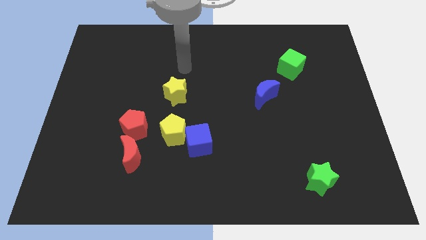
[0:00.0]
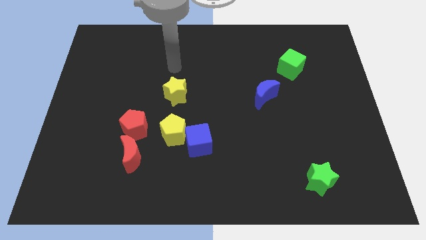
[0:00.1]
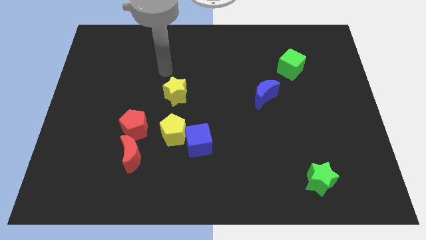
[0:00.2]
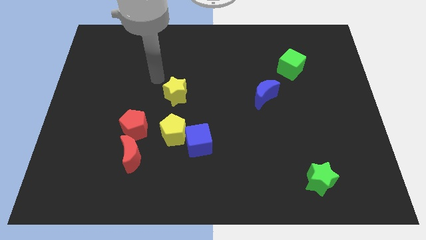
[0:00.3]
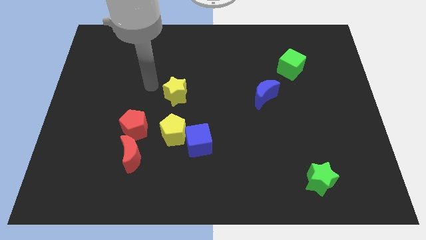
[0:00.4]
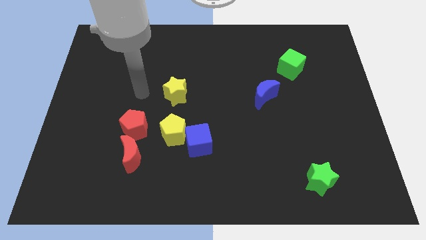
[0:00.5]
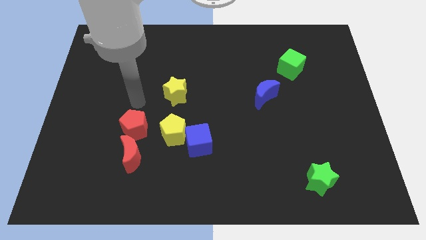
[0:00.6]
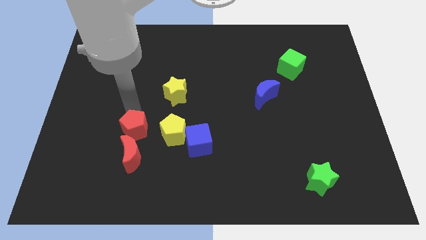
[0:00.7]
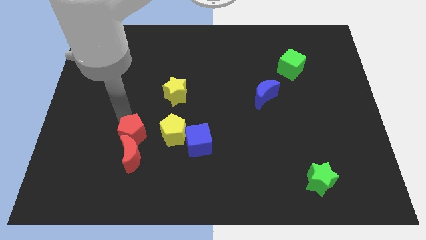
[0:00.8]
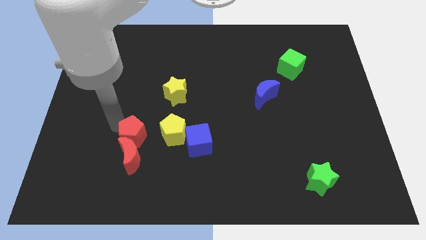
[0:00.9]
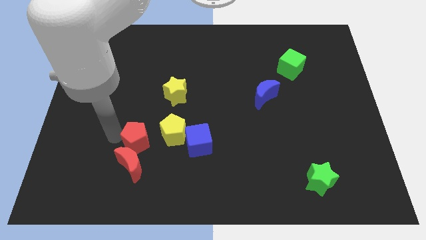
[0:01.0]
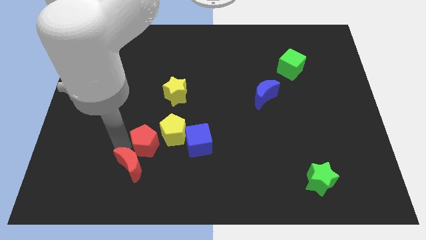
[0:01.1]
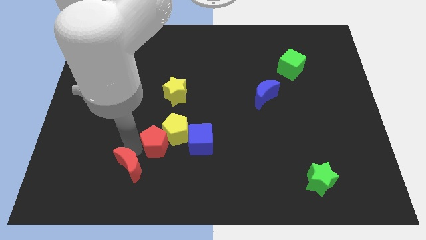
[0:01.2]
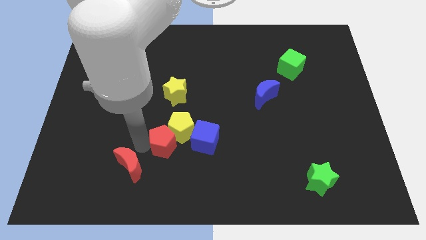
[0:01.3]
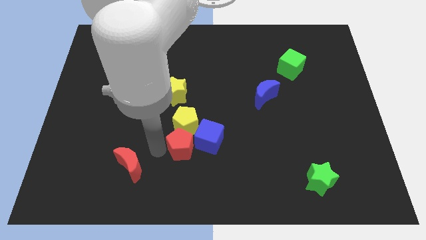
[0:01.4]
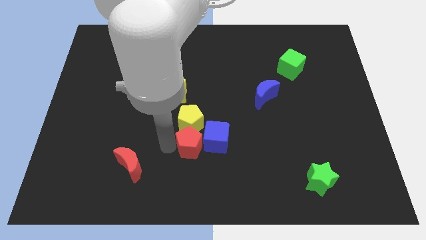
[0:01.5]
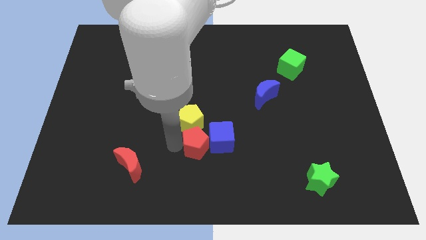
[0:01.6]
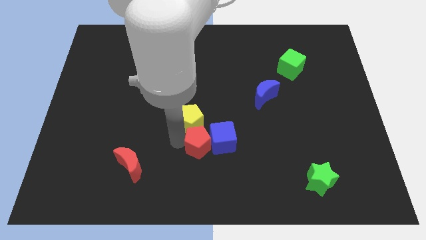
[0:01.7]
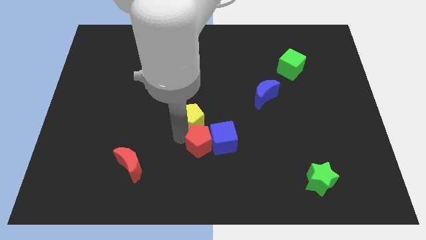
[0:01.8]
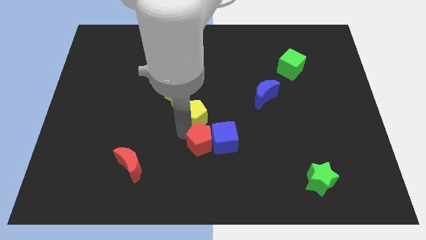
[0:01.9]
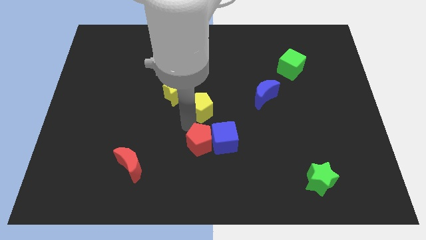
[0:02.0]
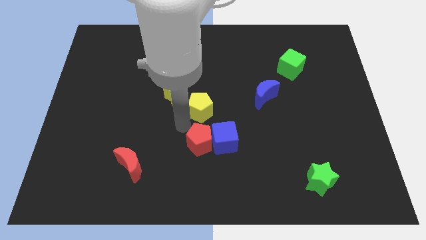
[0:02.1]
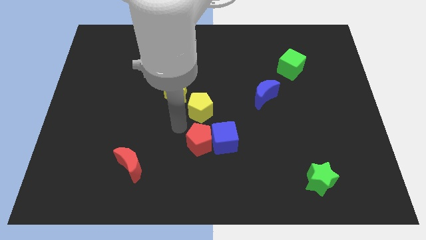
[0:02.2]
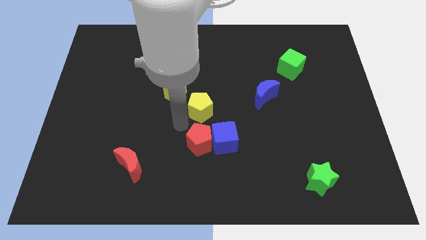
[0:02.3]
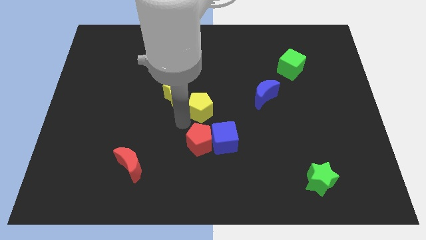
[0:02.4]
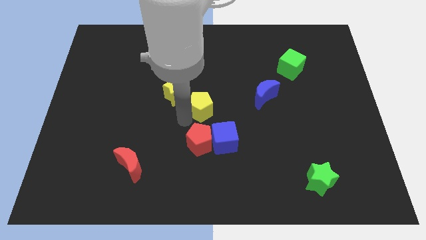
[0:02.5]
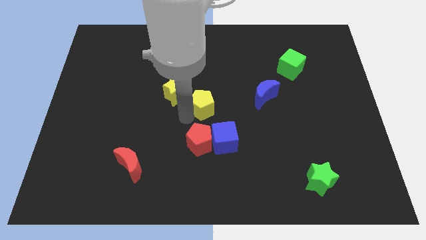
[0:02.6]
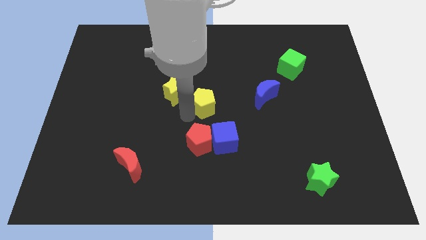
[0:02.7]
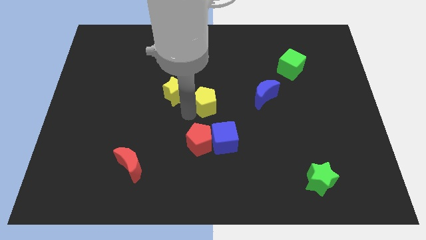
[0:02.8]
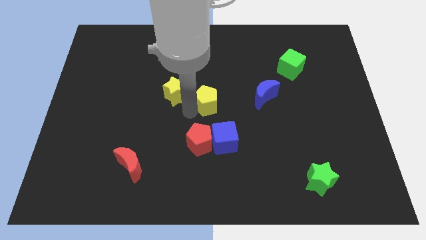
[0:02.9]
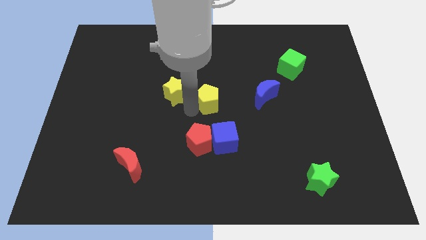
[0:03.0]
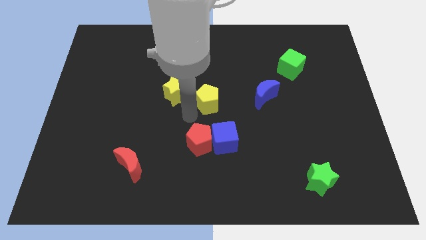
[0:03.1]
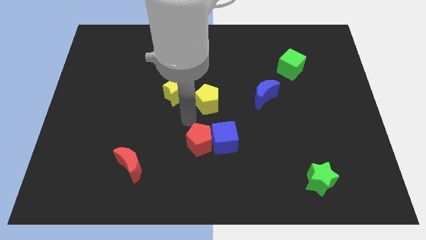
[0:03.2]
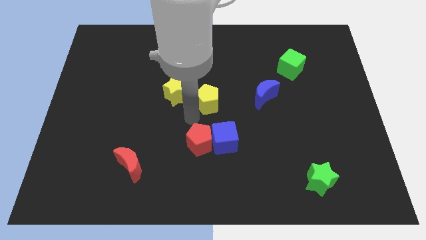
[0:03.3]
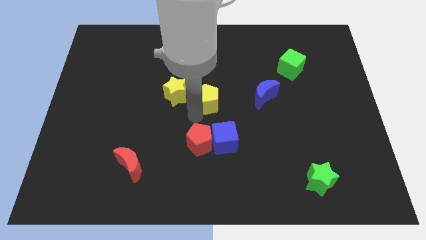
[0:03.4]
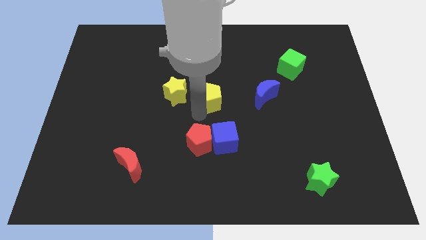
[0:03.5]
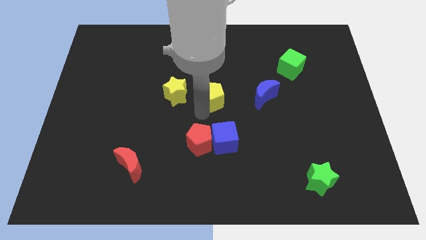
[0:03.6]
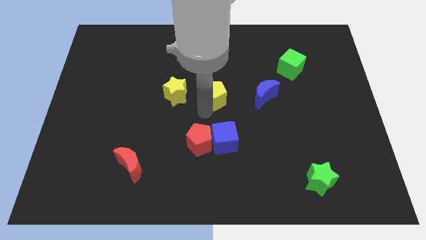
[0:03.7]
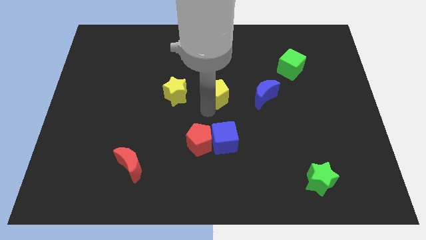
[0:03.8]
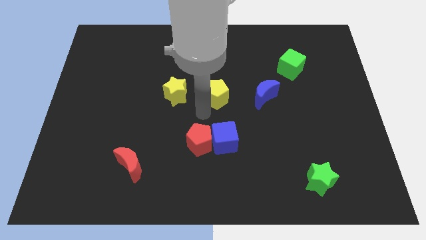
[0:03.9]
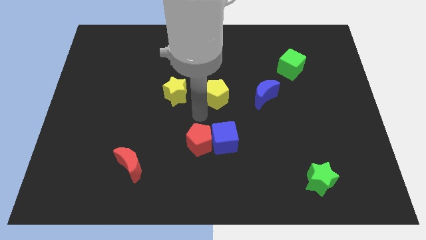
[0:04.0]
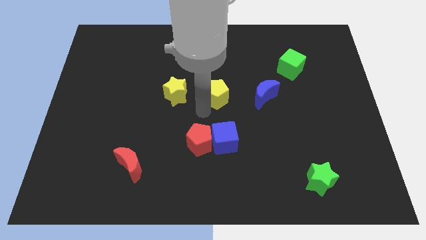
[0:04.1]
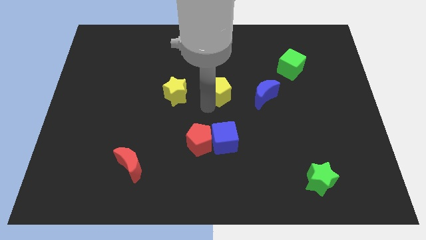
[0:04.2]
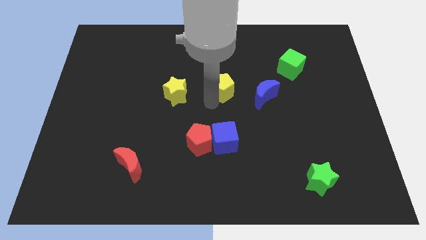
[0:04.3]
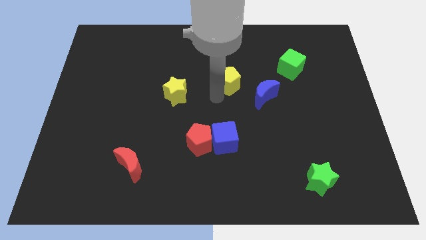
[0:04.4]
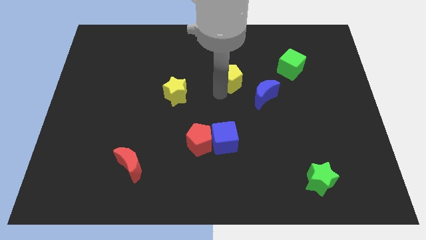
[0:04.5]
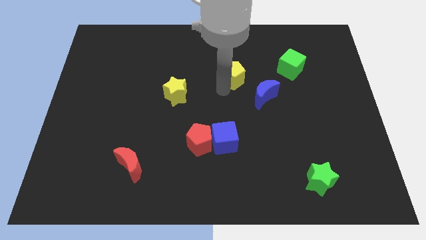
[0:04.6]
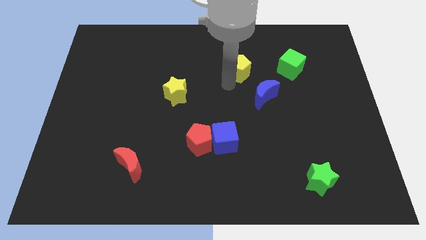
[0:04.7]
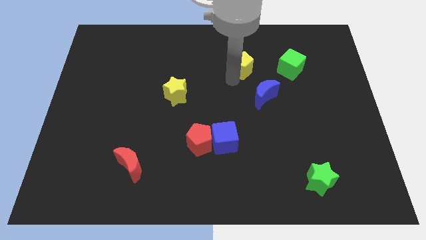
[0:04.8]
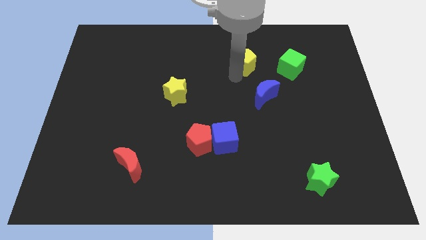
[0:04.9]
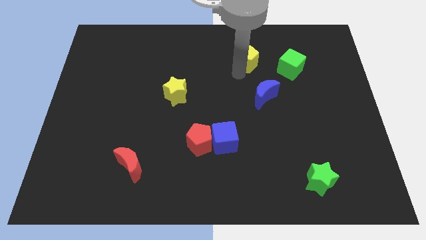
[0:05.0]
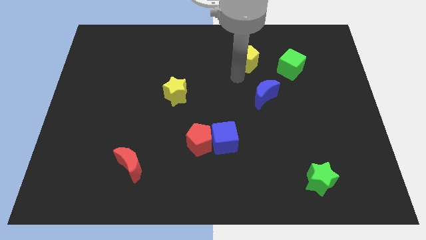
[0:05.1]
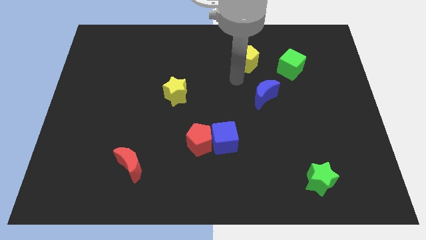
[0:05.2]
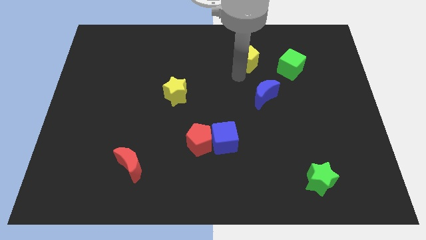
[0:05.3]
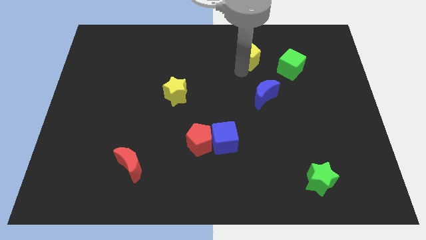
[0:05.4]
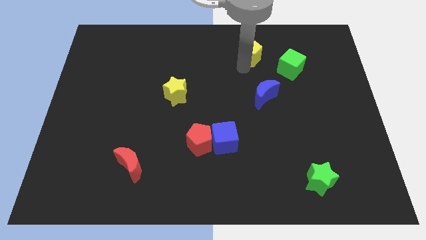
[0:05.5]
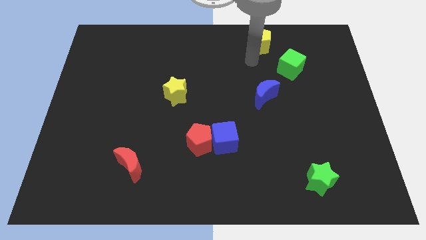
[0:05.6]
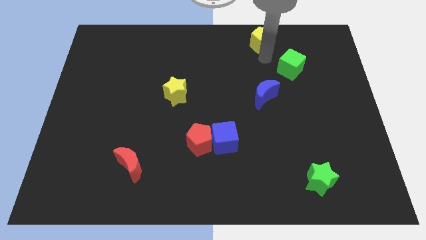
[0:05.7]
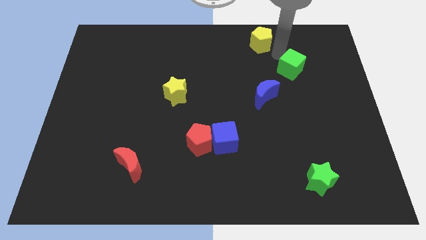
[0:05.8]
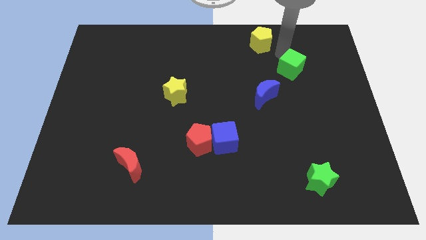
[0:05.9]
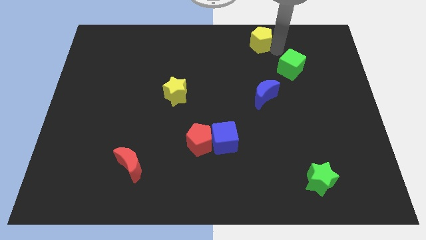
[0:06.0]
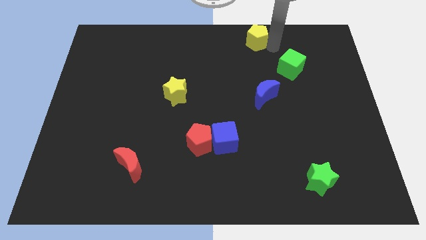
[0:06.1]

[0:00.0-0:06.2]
push the yellow pentagon to the top side

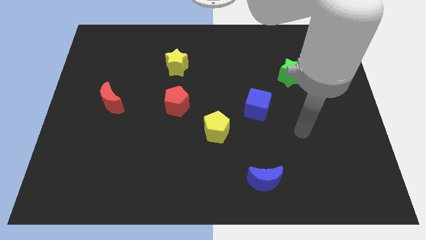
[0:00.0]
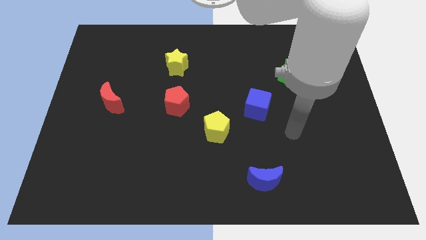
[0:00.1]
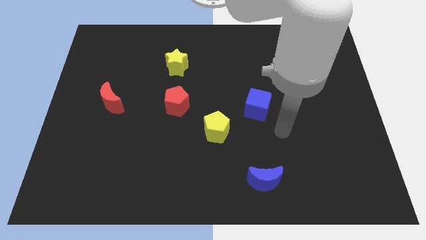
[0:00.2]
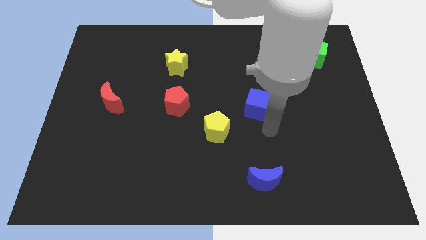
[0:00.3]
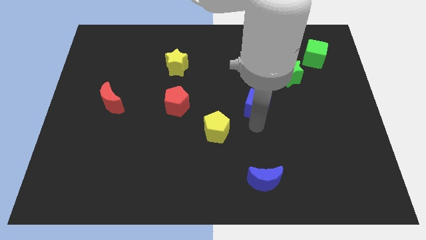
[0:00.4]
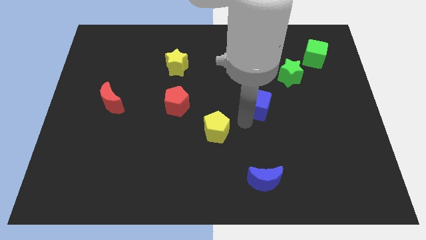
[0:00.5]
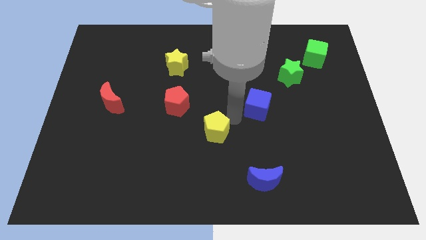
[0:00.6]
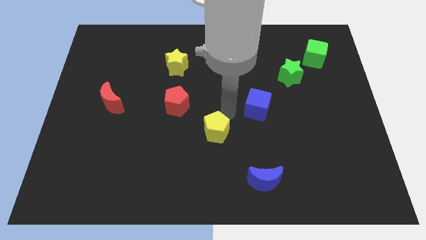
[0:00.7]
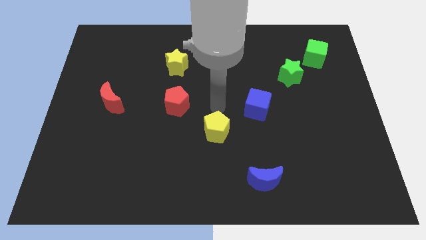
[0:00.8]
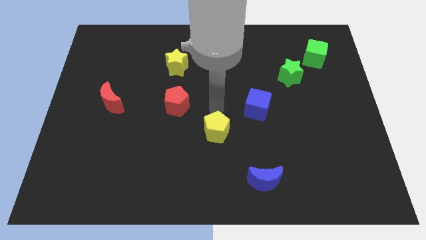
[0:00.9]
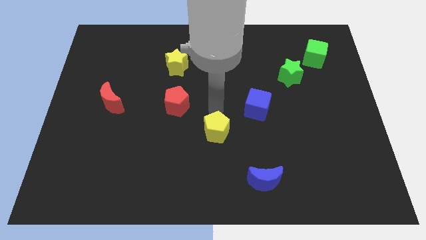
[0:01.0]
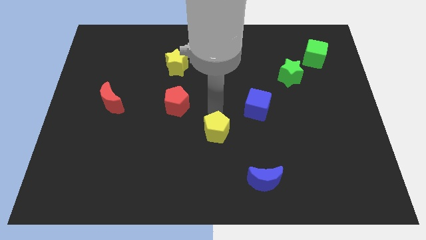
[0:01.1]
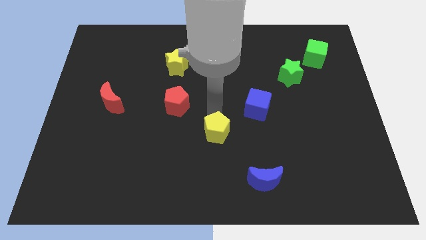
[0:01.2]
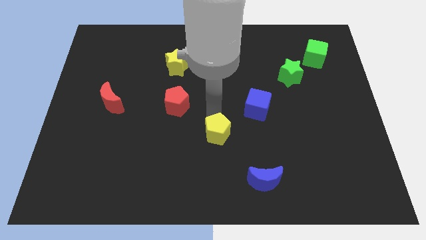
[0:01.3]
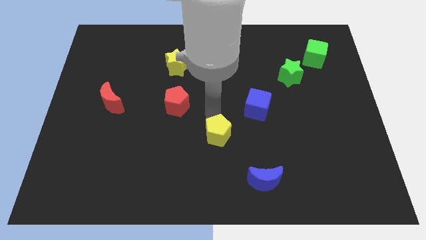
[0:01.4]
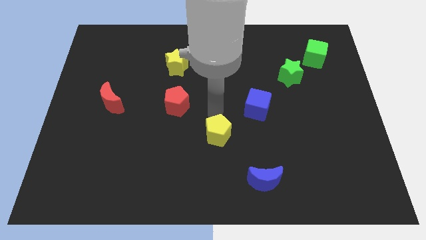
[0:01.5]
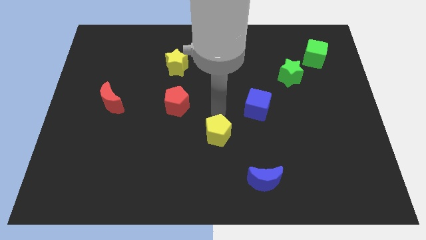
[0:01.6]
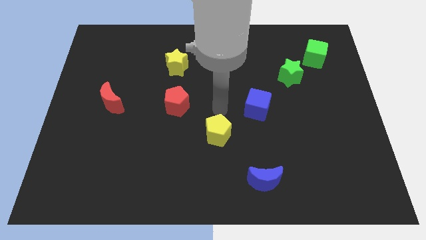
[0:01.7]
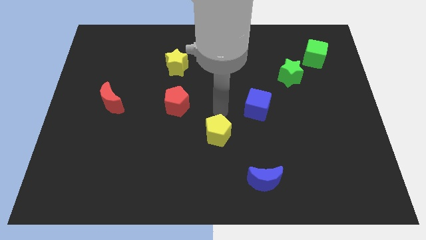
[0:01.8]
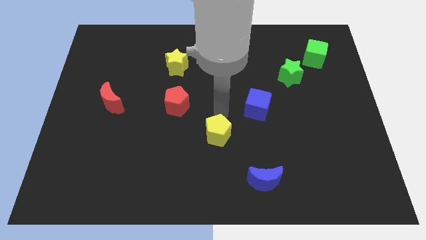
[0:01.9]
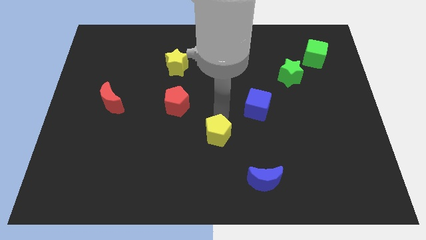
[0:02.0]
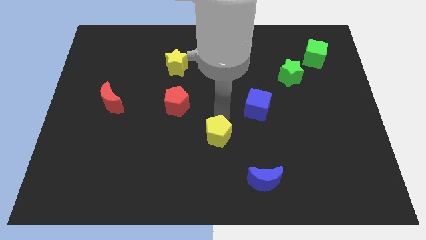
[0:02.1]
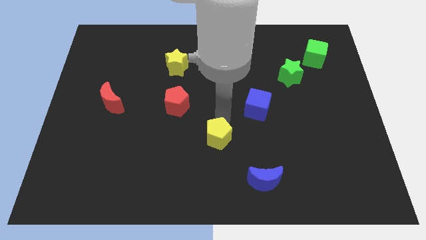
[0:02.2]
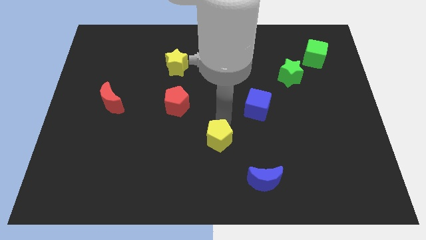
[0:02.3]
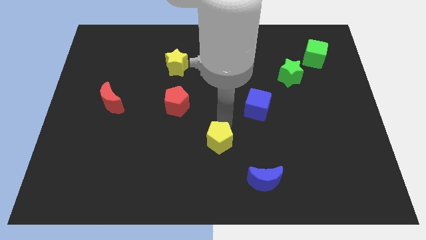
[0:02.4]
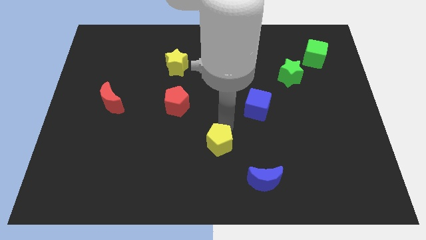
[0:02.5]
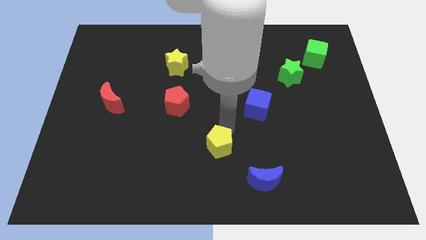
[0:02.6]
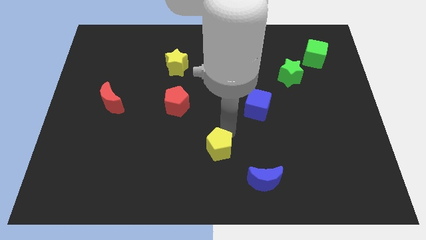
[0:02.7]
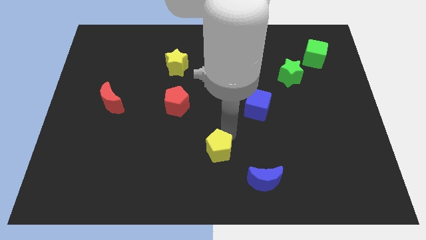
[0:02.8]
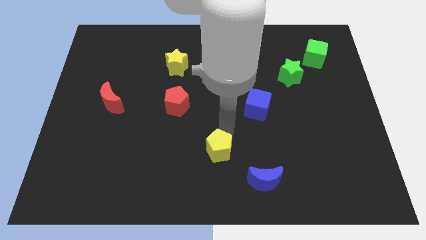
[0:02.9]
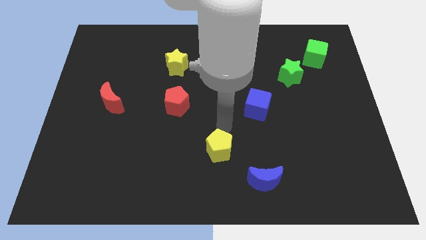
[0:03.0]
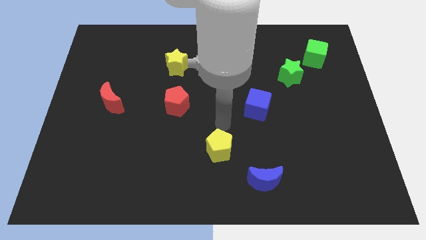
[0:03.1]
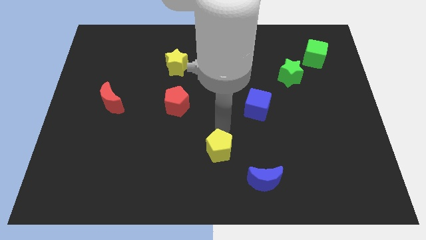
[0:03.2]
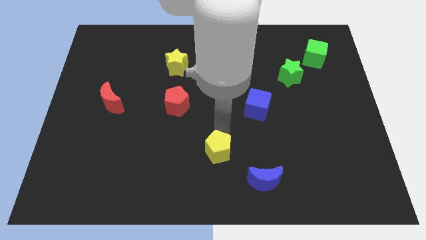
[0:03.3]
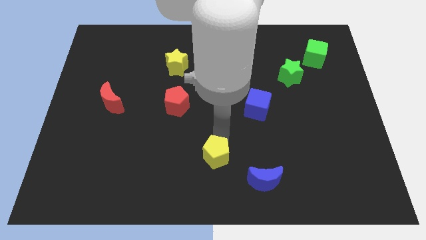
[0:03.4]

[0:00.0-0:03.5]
slide the yellow pentagon to the bottom
